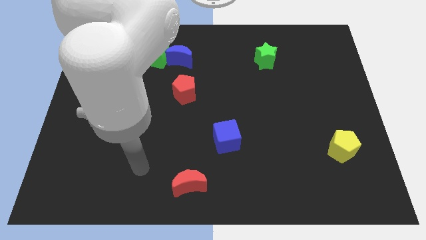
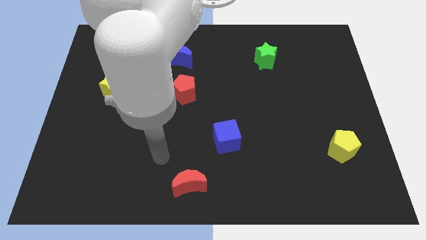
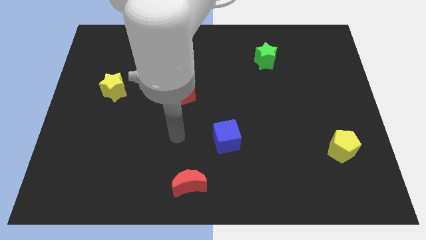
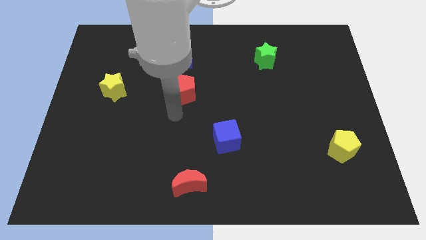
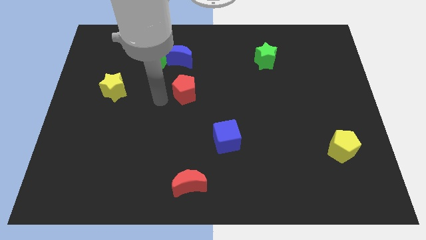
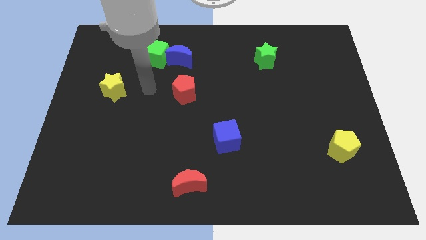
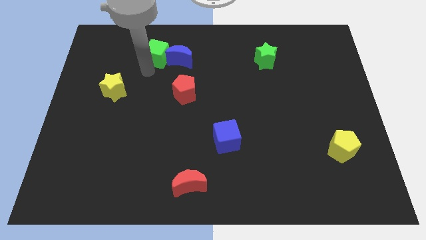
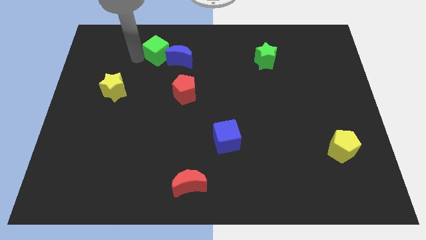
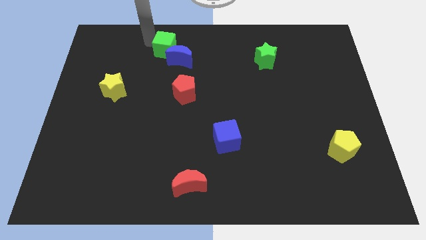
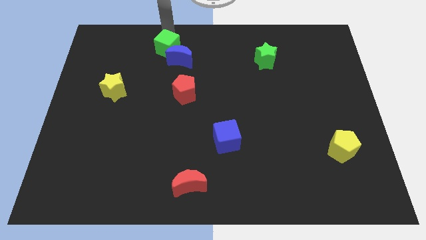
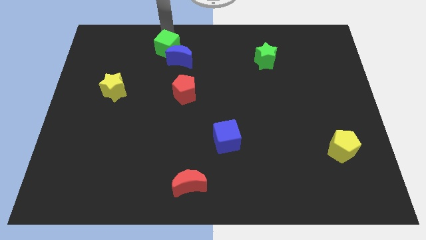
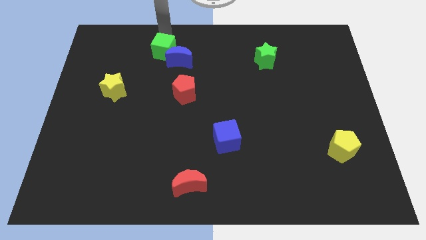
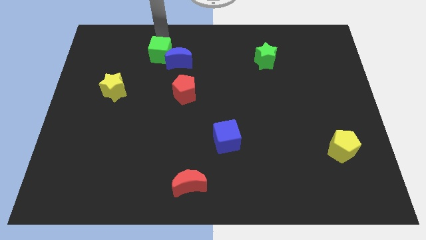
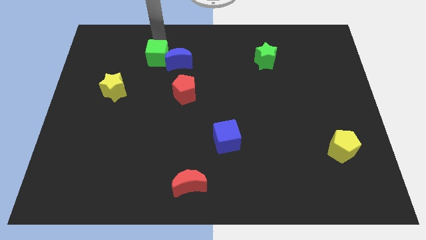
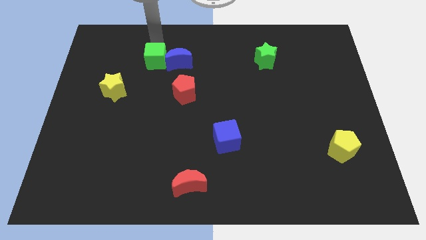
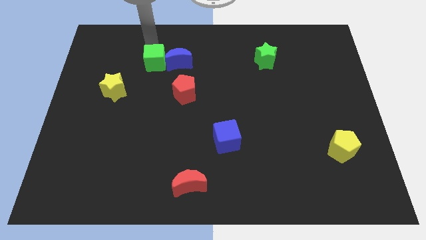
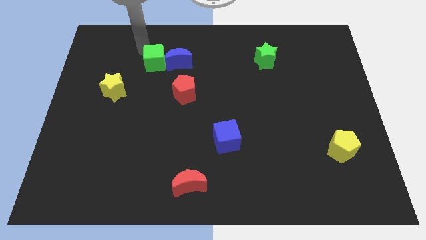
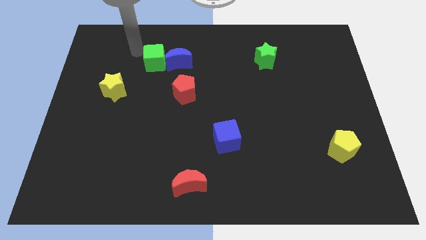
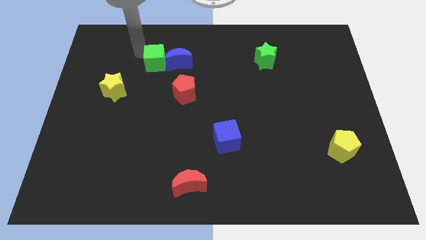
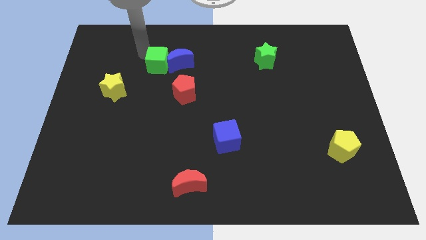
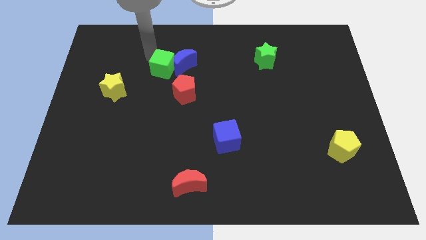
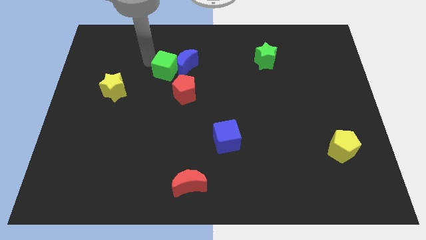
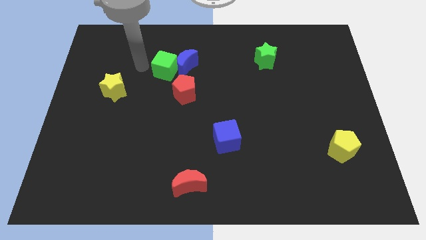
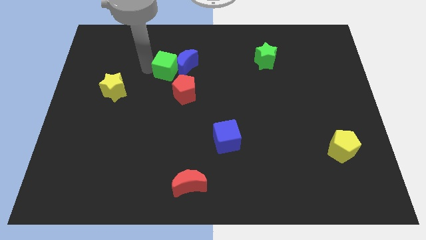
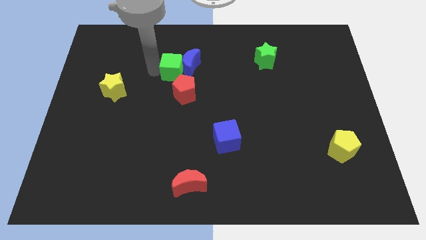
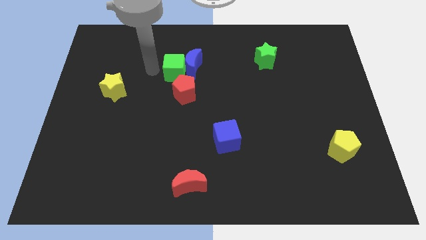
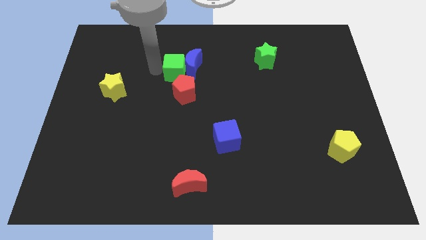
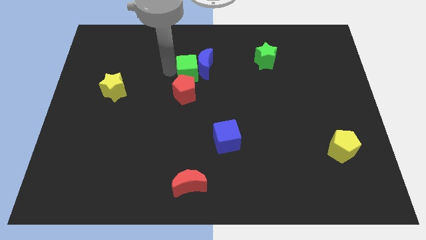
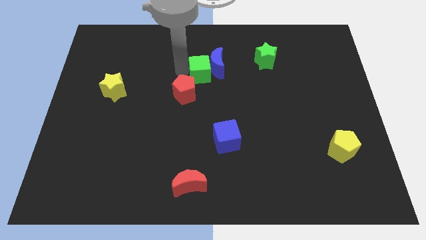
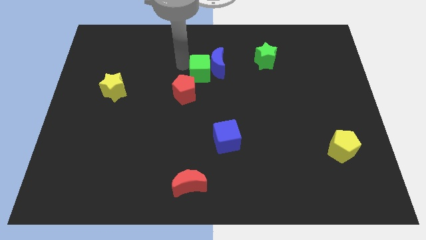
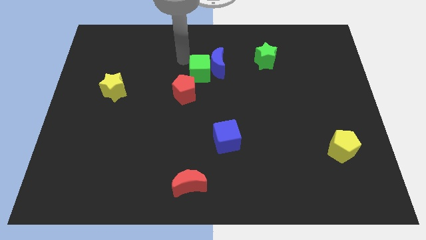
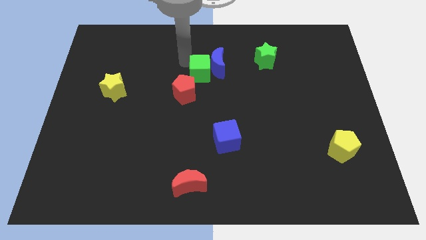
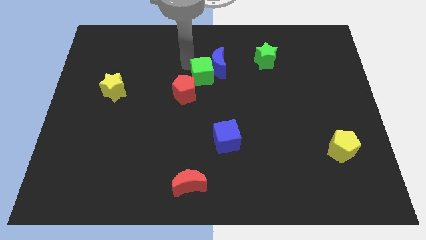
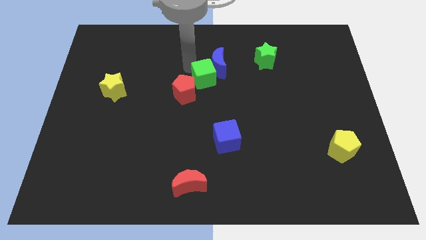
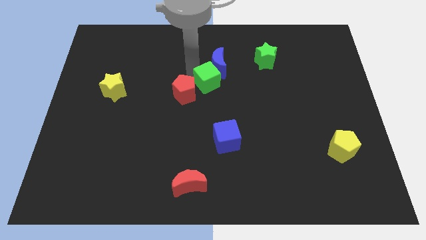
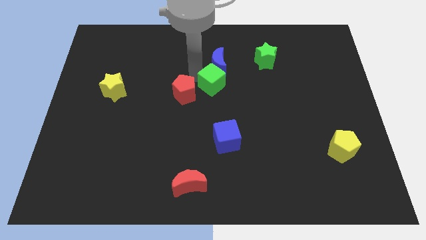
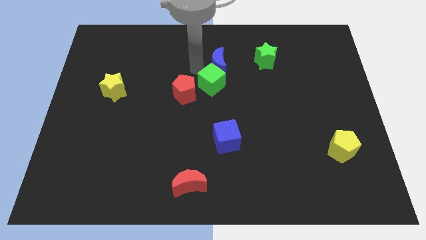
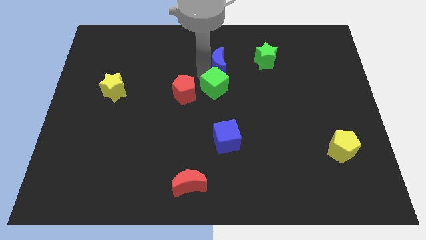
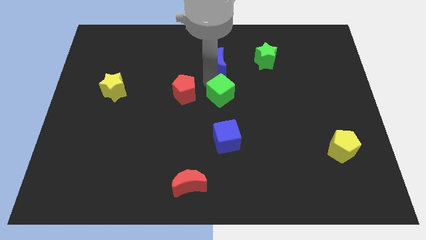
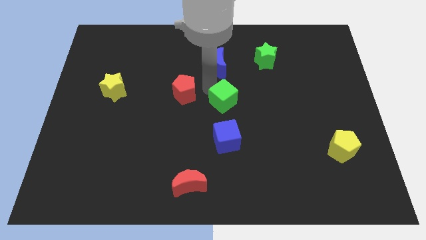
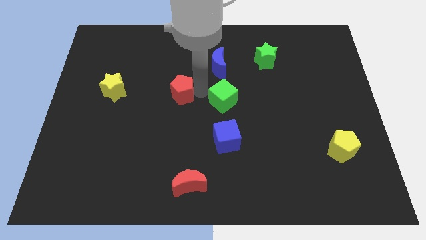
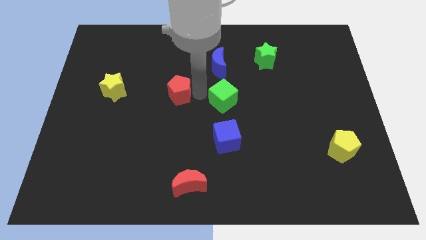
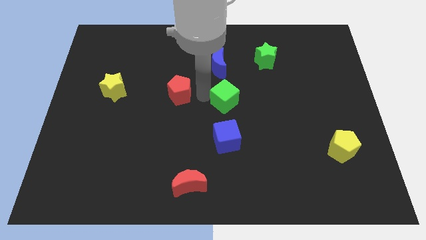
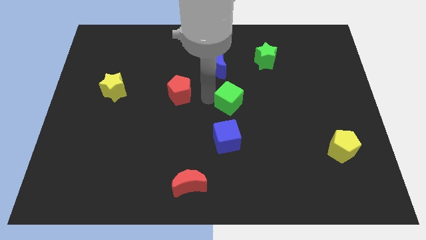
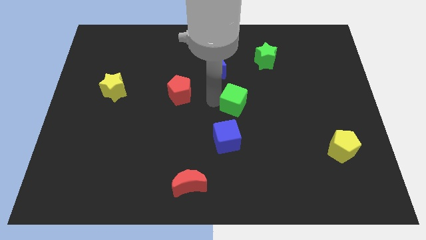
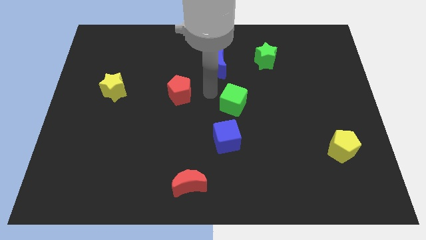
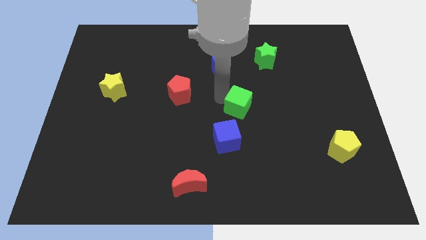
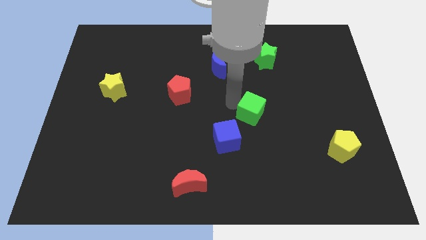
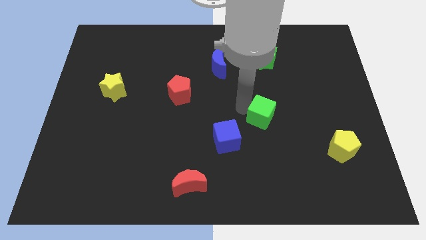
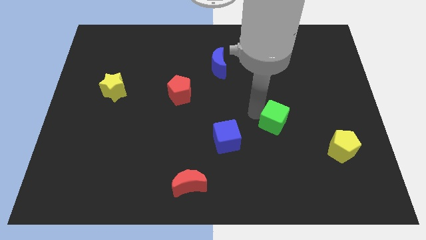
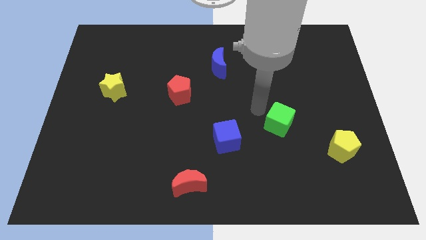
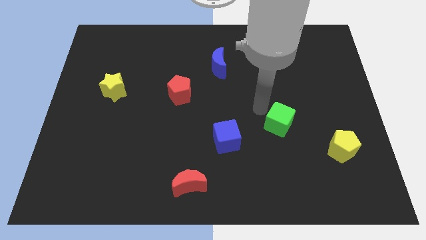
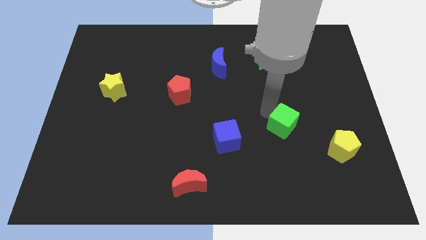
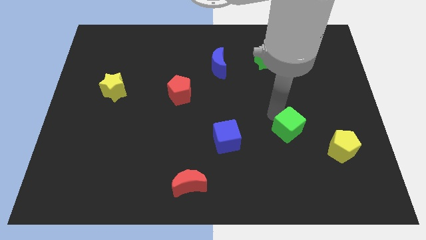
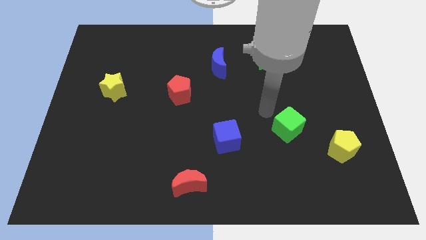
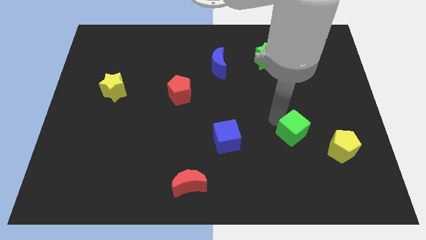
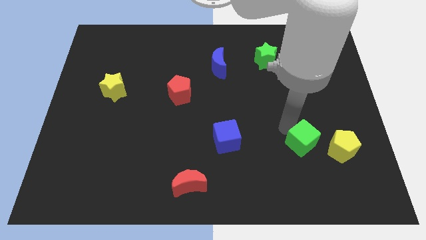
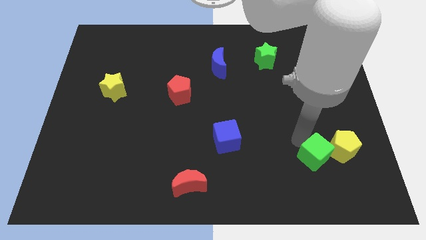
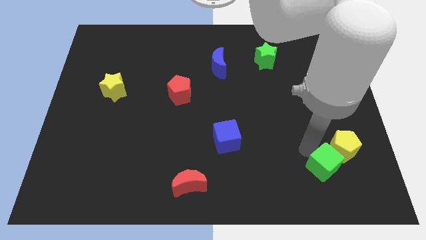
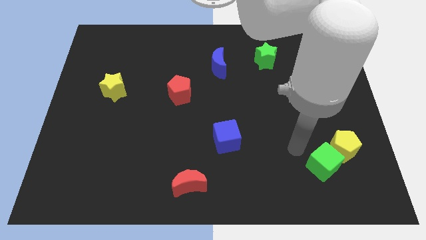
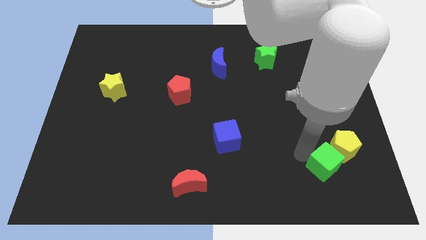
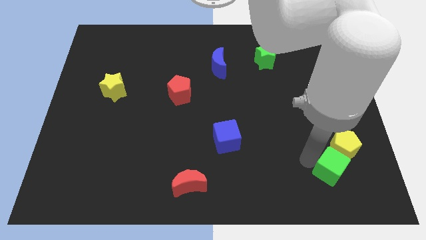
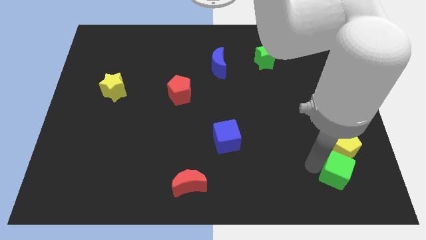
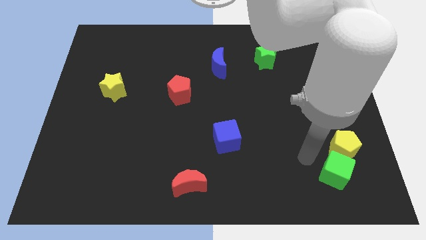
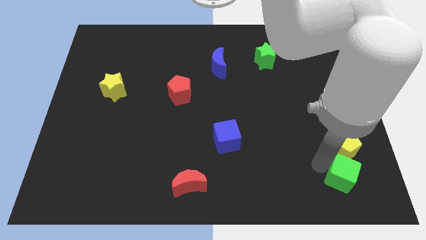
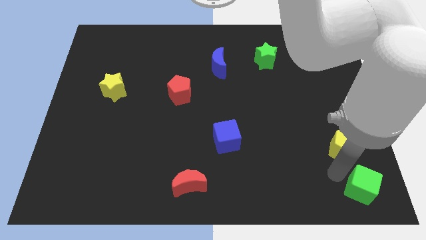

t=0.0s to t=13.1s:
slide the green cube to the bottom right of the board
